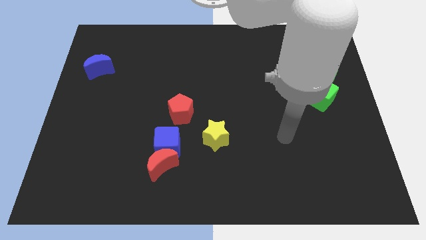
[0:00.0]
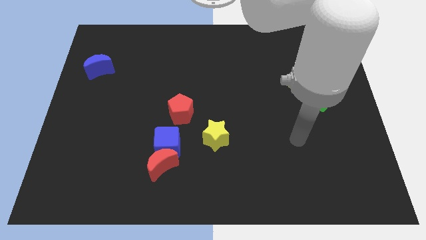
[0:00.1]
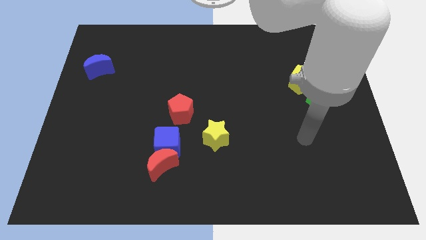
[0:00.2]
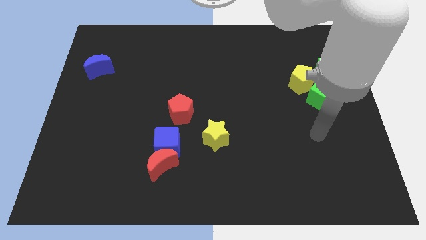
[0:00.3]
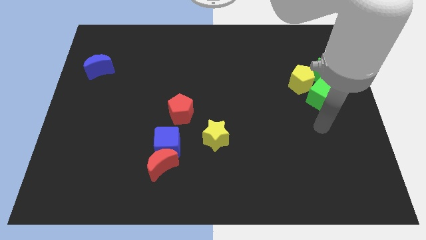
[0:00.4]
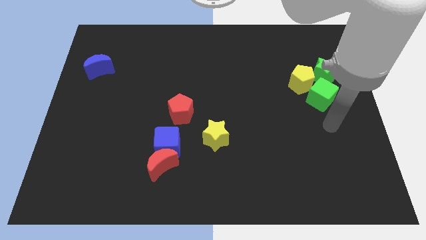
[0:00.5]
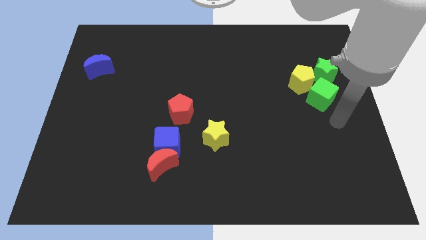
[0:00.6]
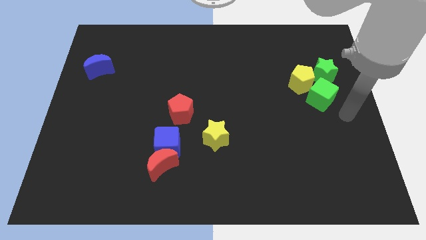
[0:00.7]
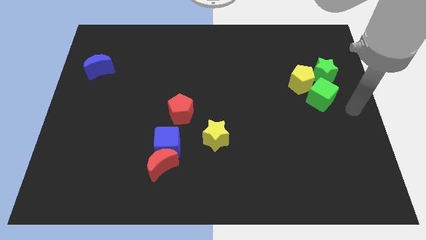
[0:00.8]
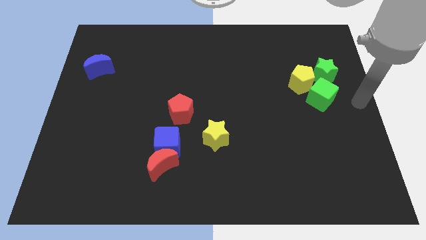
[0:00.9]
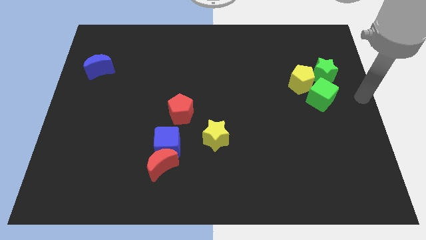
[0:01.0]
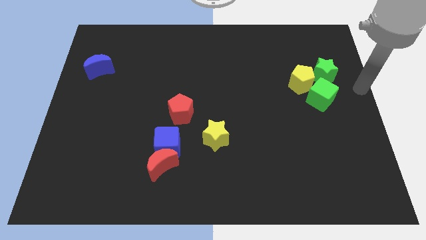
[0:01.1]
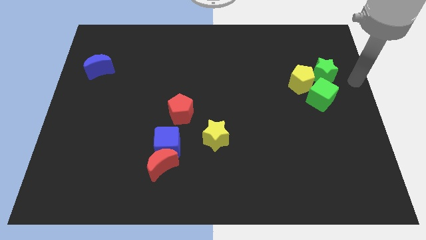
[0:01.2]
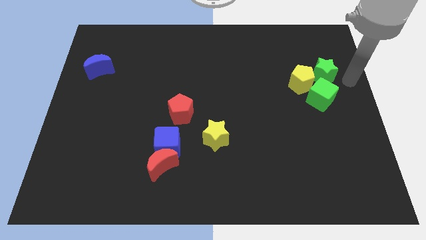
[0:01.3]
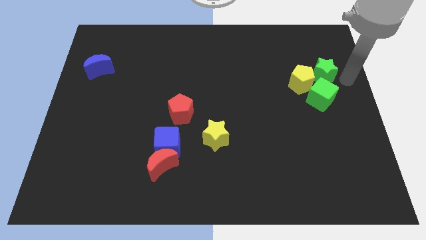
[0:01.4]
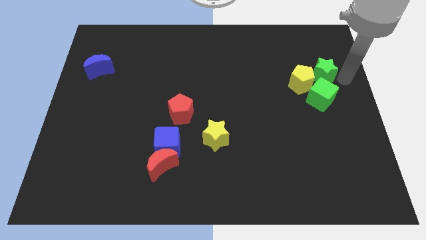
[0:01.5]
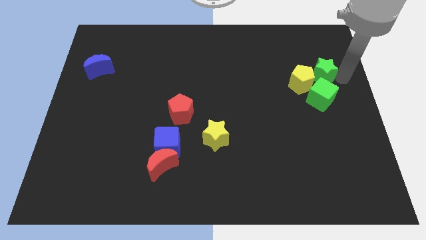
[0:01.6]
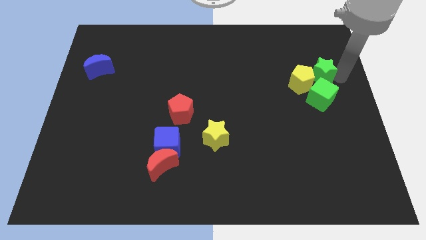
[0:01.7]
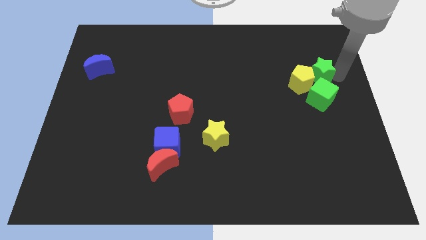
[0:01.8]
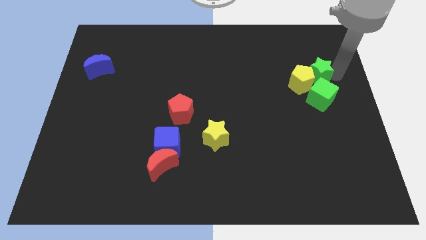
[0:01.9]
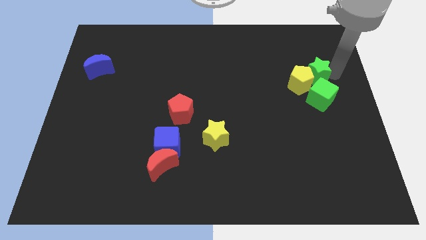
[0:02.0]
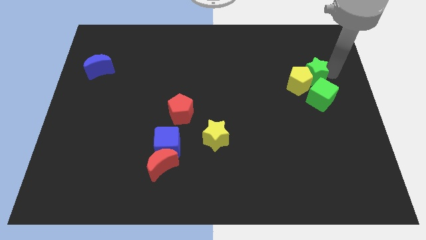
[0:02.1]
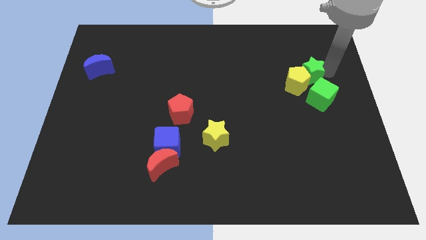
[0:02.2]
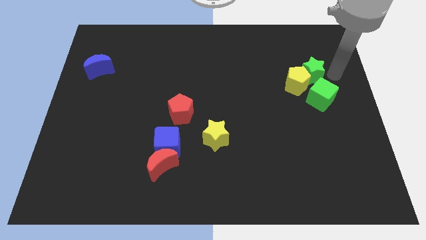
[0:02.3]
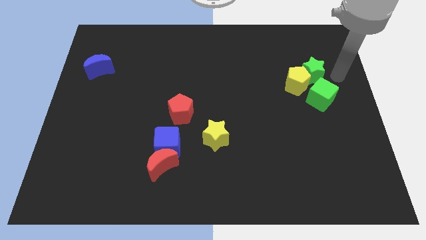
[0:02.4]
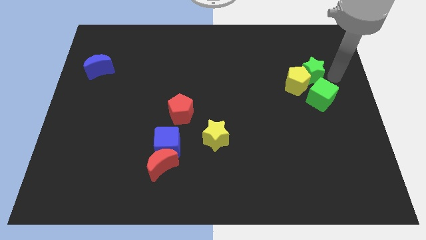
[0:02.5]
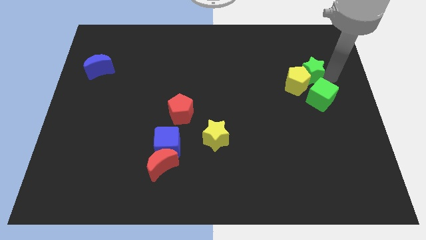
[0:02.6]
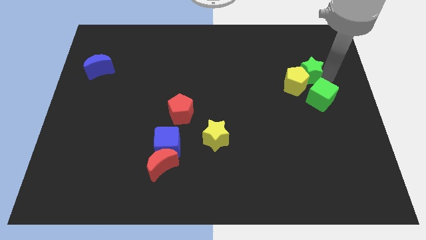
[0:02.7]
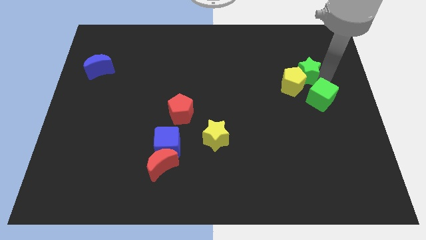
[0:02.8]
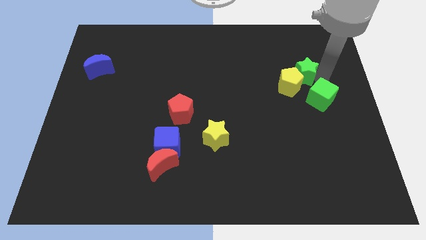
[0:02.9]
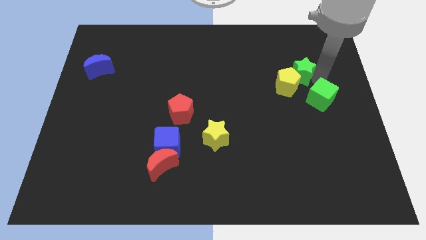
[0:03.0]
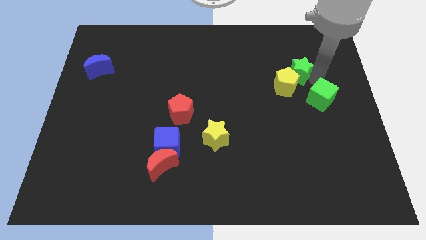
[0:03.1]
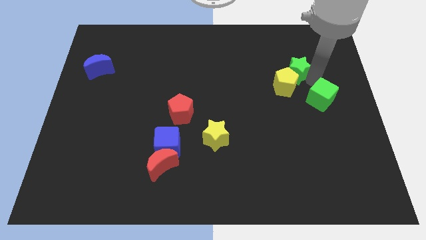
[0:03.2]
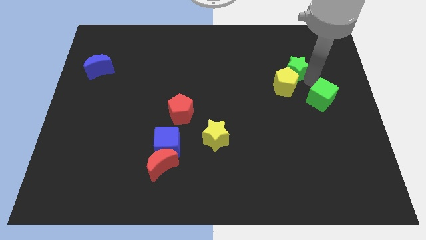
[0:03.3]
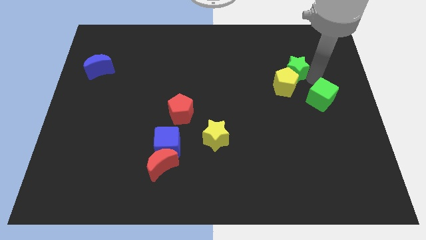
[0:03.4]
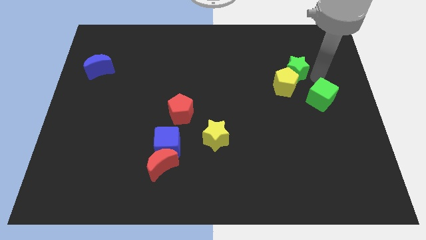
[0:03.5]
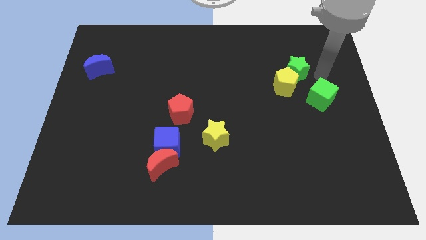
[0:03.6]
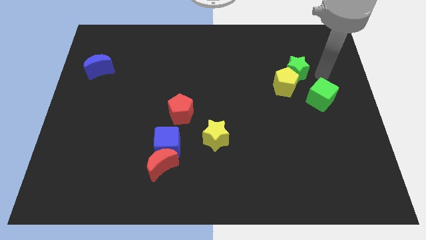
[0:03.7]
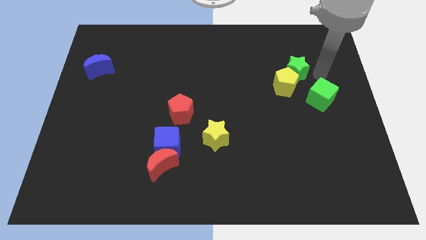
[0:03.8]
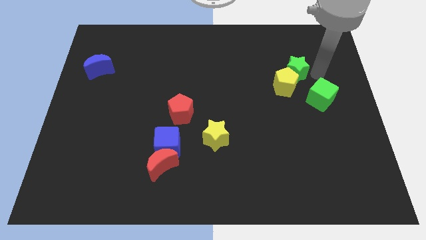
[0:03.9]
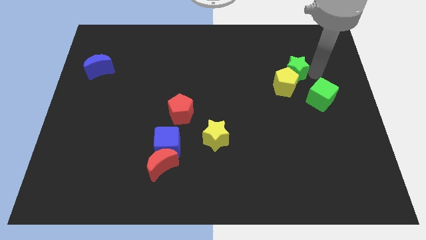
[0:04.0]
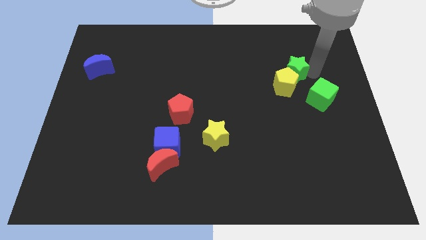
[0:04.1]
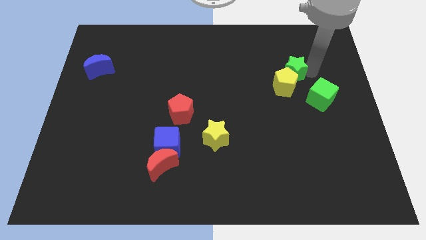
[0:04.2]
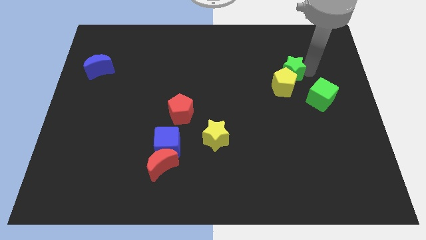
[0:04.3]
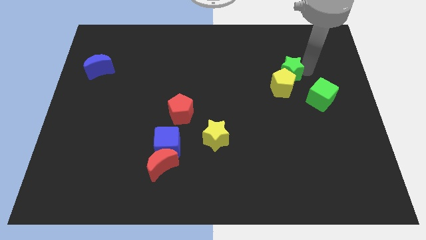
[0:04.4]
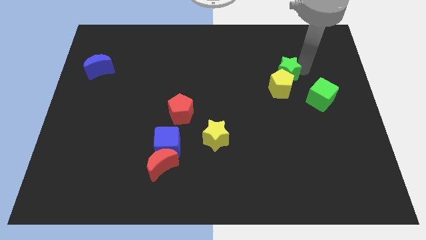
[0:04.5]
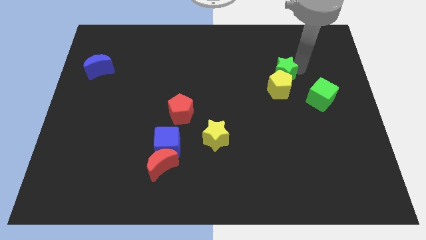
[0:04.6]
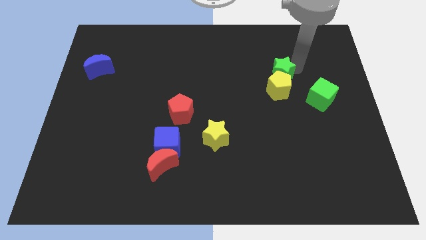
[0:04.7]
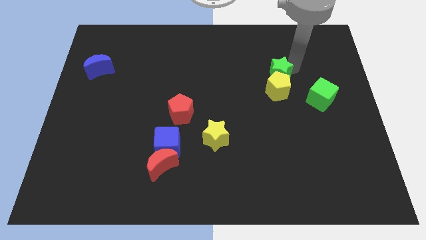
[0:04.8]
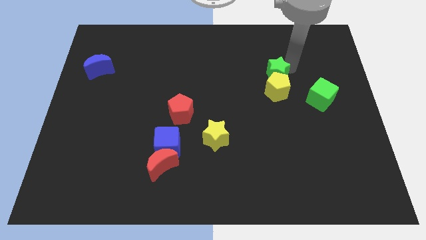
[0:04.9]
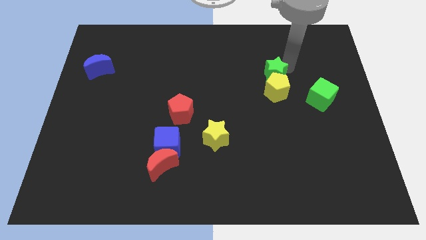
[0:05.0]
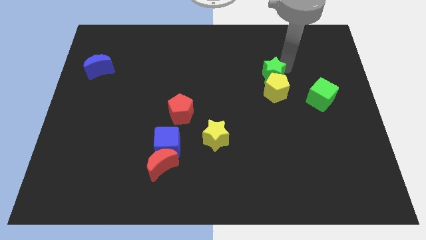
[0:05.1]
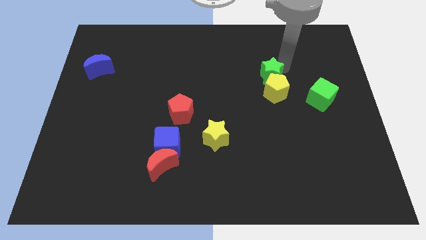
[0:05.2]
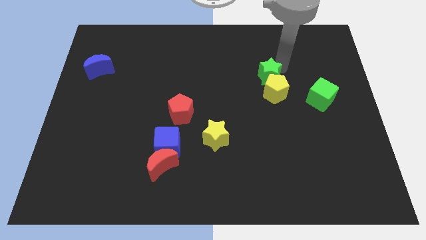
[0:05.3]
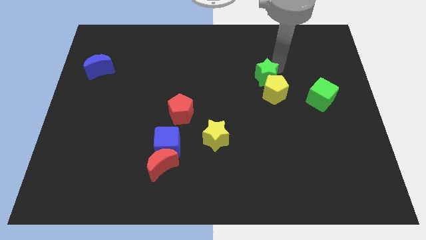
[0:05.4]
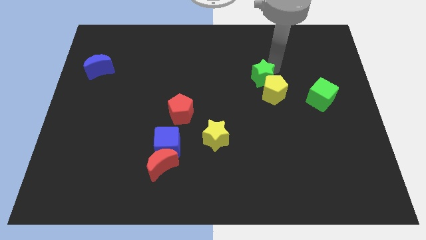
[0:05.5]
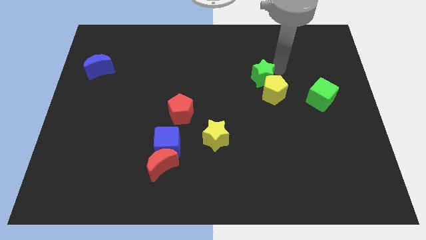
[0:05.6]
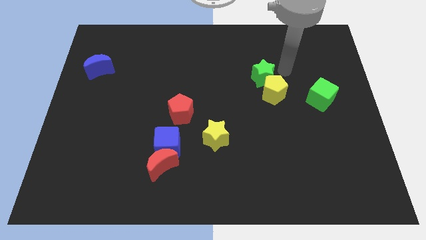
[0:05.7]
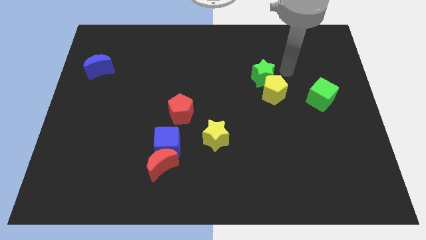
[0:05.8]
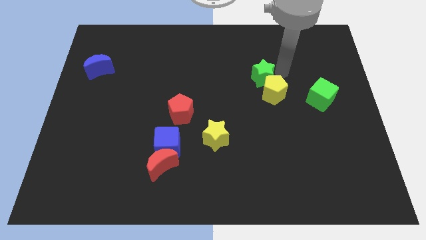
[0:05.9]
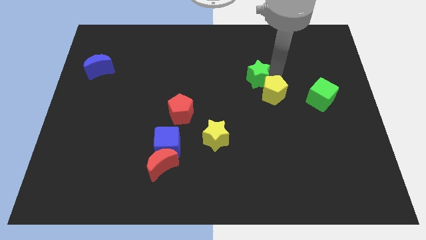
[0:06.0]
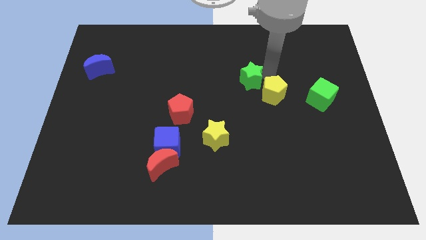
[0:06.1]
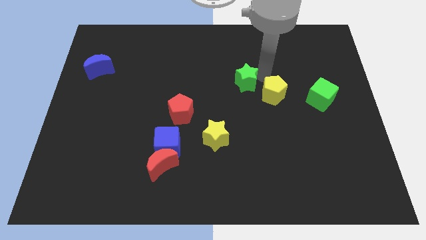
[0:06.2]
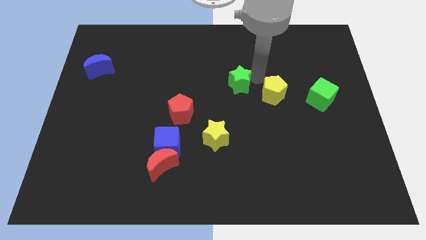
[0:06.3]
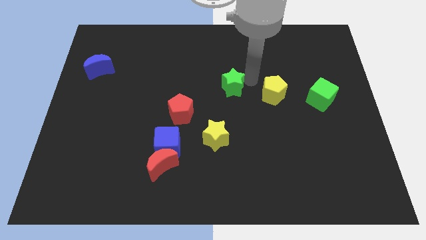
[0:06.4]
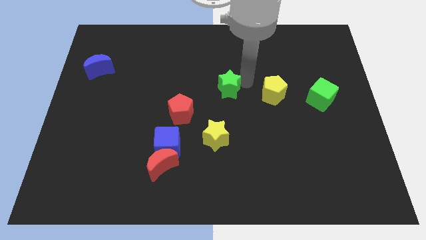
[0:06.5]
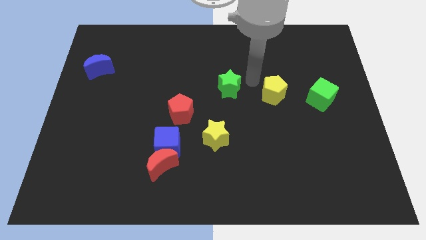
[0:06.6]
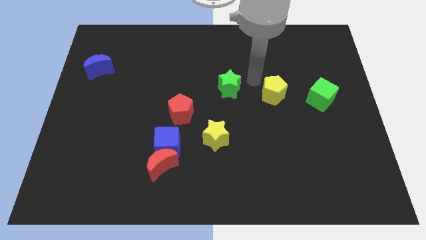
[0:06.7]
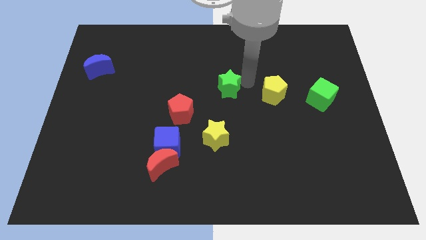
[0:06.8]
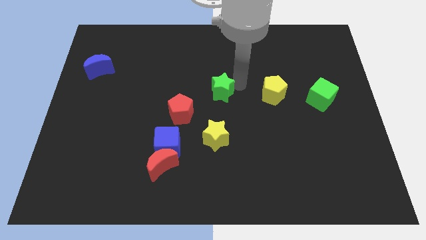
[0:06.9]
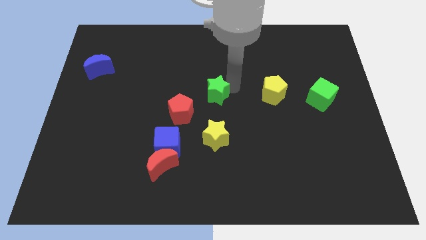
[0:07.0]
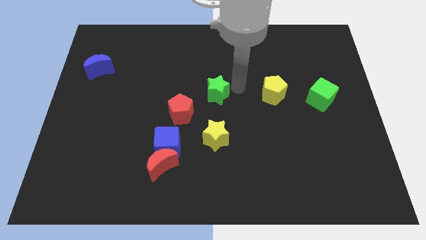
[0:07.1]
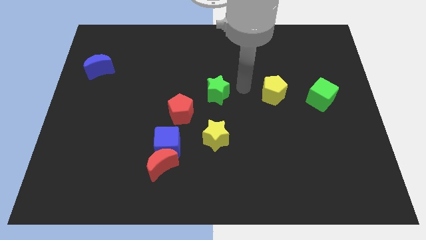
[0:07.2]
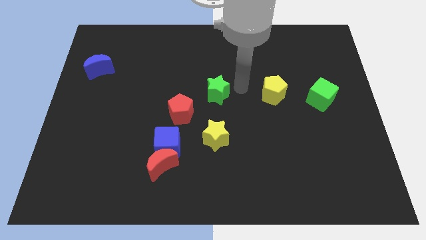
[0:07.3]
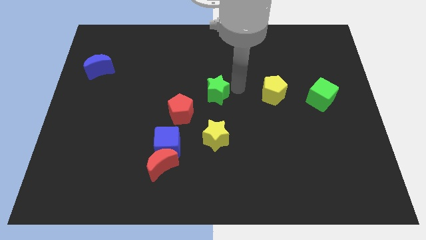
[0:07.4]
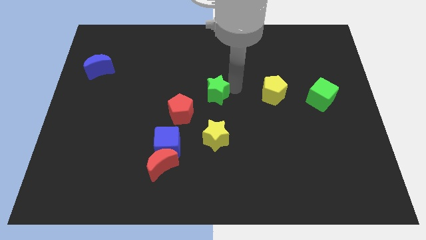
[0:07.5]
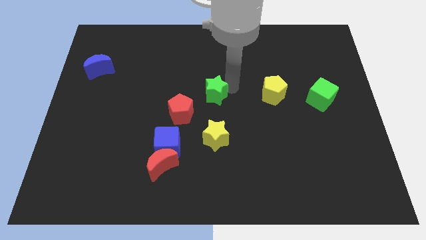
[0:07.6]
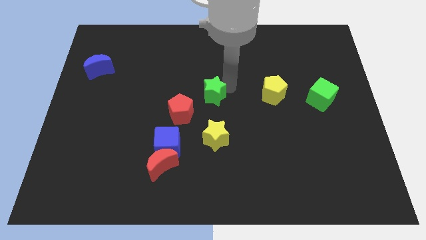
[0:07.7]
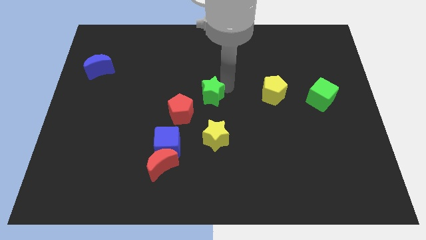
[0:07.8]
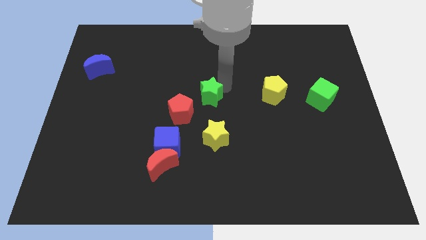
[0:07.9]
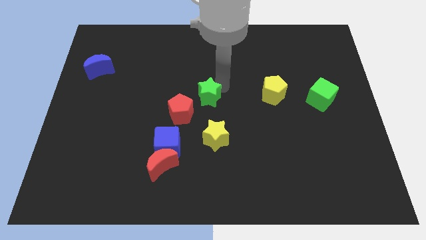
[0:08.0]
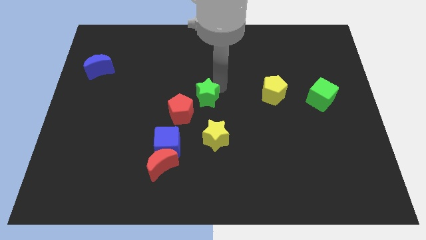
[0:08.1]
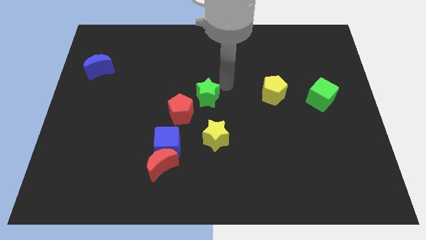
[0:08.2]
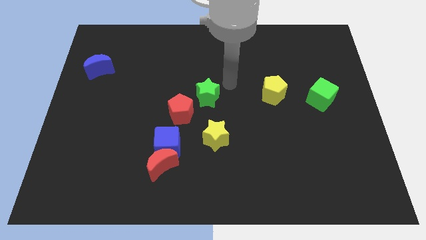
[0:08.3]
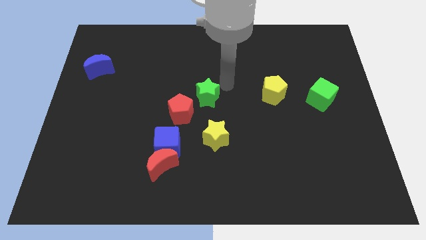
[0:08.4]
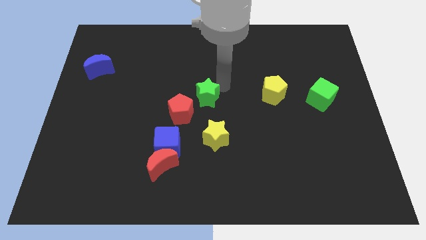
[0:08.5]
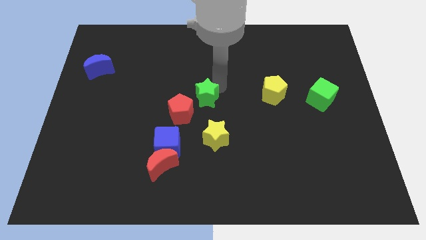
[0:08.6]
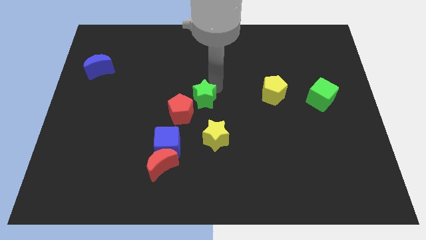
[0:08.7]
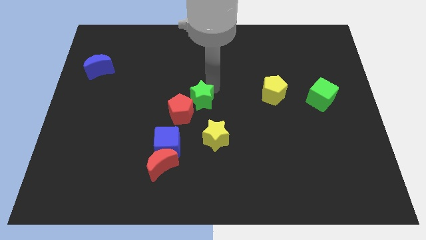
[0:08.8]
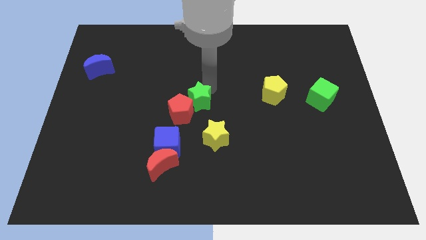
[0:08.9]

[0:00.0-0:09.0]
put the green star next to the red pentagon
